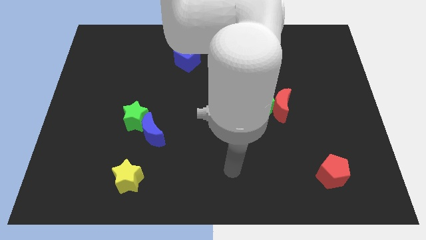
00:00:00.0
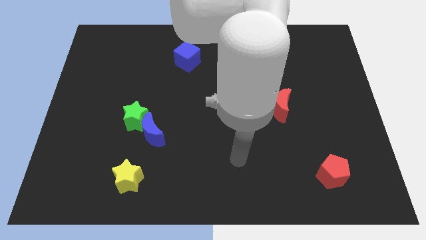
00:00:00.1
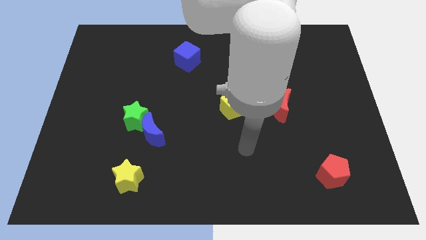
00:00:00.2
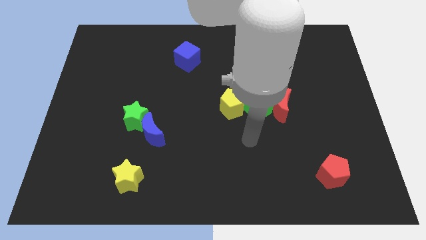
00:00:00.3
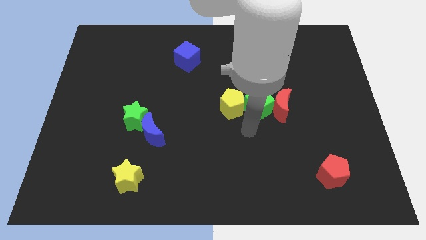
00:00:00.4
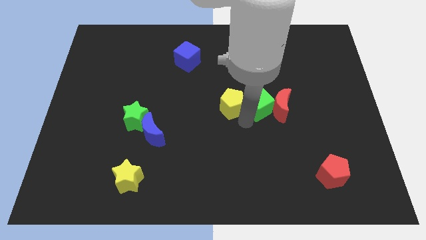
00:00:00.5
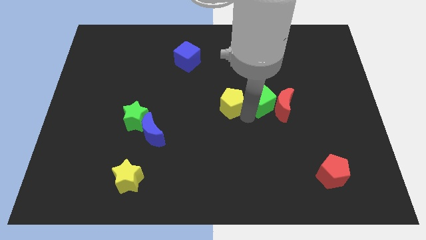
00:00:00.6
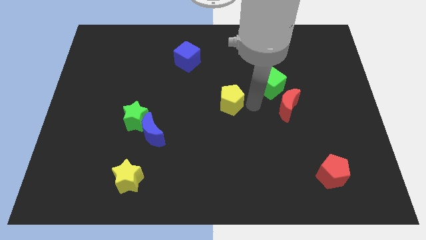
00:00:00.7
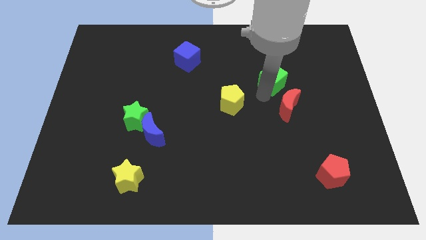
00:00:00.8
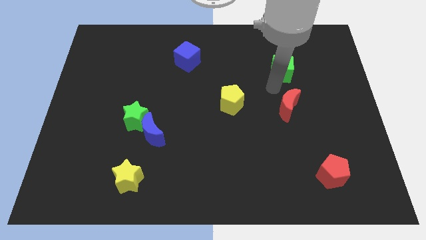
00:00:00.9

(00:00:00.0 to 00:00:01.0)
separate the red moon from the green cube

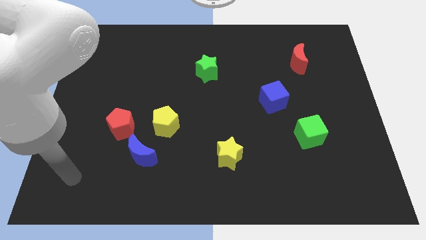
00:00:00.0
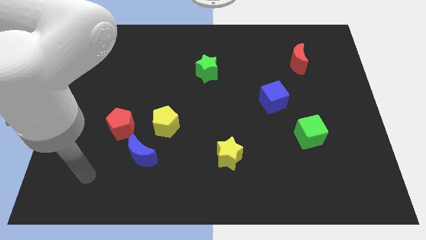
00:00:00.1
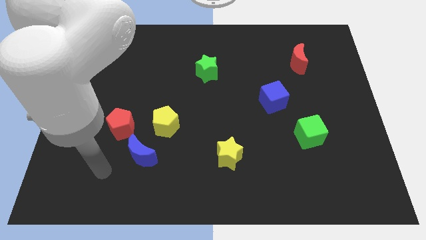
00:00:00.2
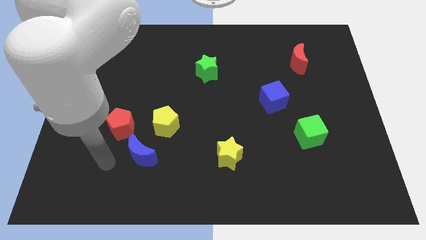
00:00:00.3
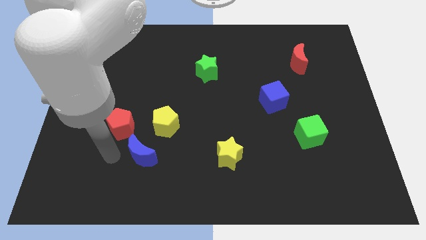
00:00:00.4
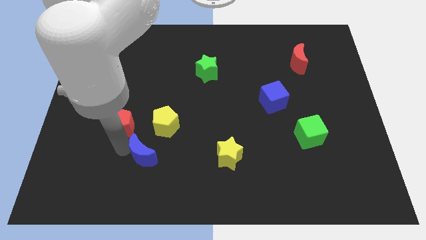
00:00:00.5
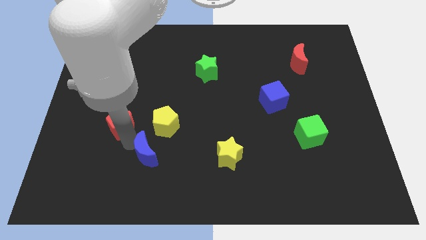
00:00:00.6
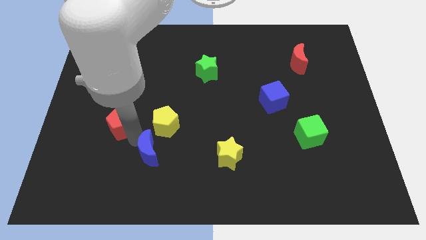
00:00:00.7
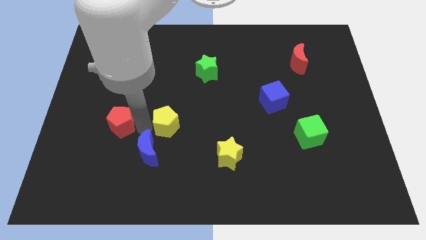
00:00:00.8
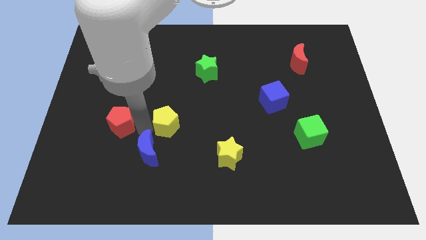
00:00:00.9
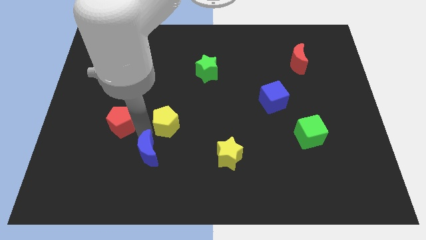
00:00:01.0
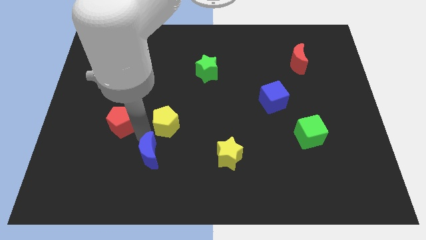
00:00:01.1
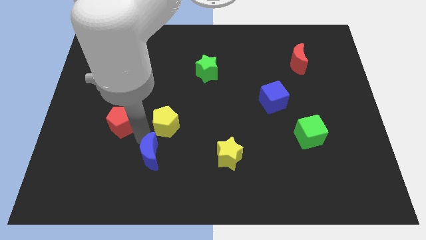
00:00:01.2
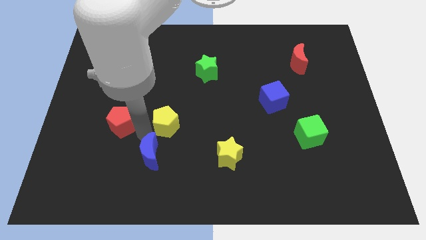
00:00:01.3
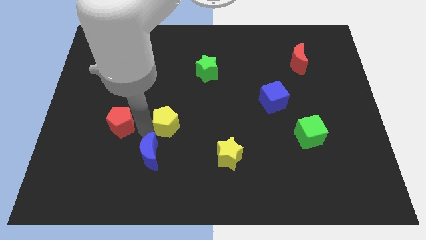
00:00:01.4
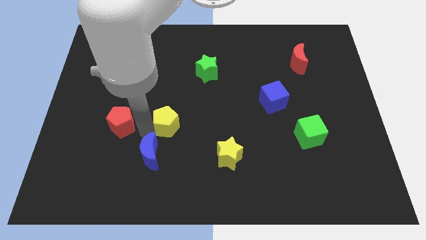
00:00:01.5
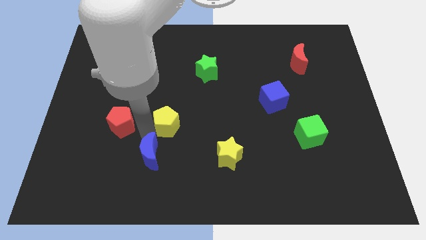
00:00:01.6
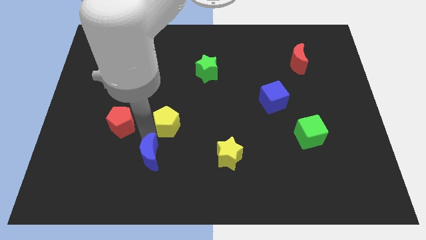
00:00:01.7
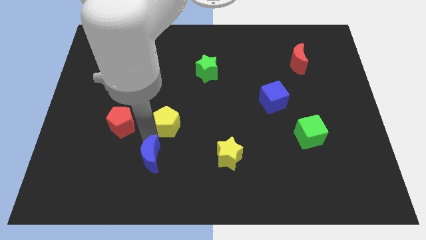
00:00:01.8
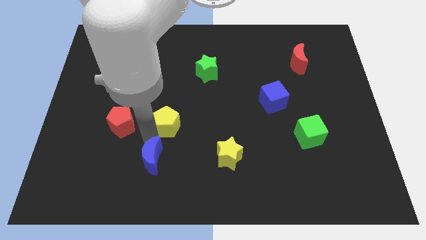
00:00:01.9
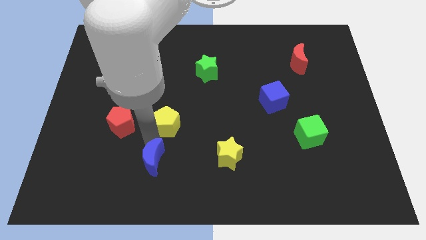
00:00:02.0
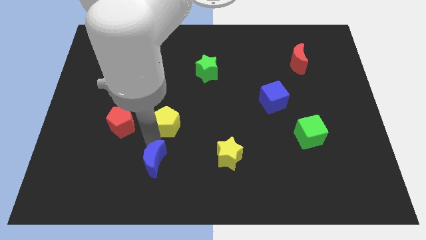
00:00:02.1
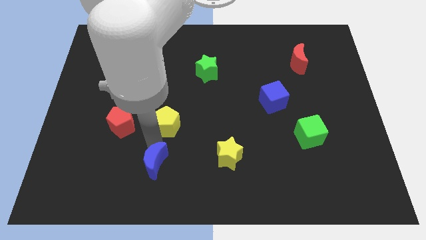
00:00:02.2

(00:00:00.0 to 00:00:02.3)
pull the blue moon apart from the red pentagon and yellow pentagon

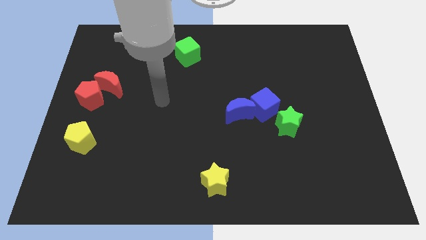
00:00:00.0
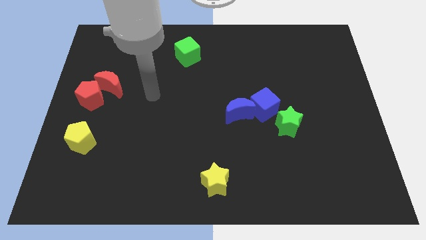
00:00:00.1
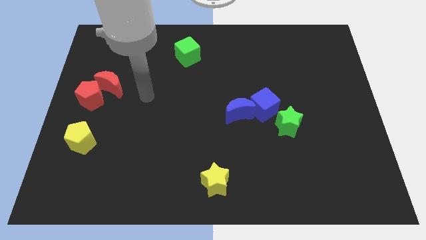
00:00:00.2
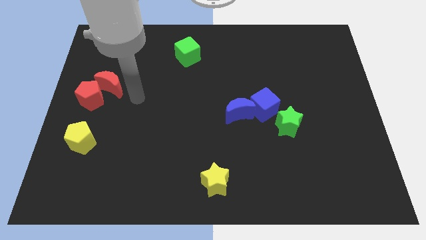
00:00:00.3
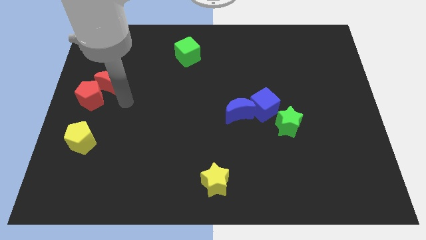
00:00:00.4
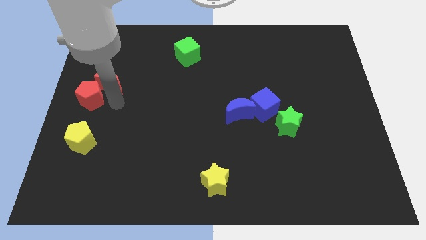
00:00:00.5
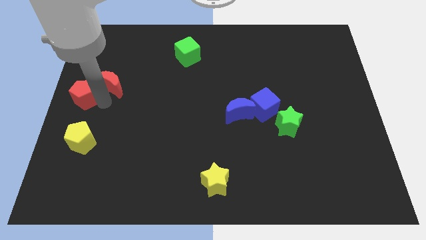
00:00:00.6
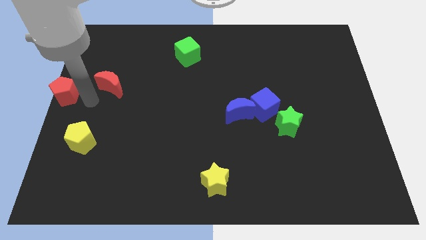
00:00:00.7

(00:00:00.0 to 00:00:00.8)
pull the red moon apart from the red pentagon

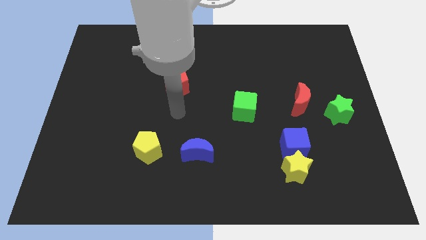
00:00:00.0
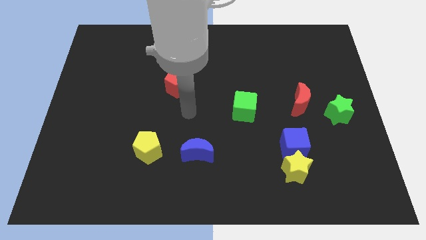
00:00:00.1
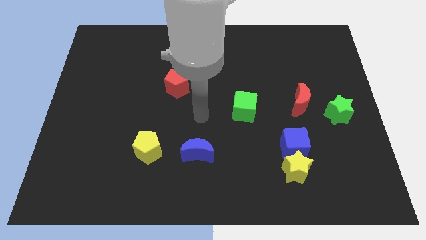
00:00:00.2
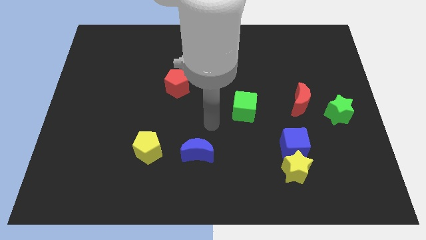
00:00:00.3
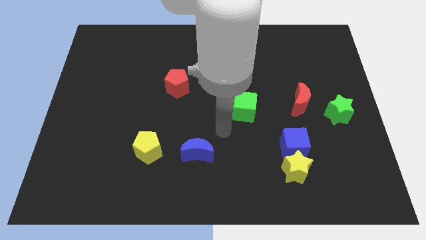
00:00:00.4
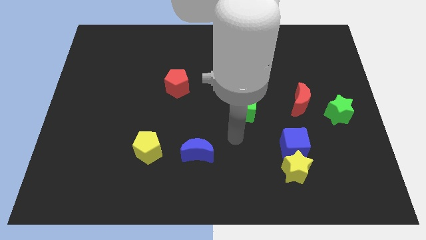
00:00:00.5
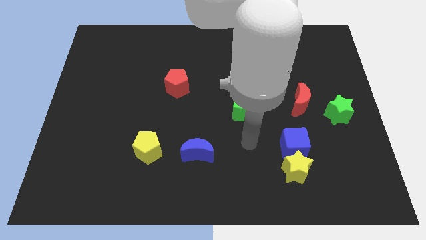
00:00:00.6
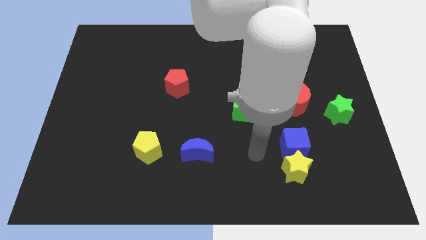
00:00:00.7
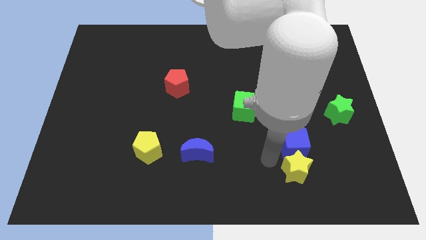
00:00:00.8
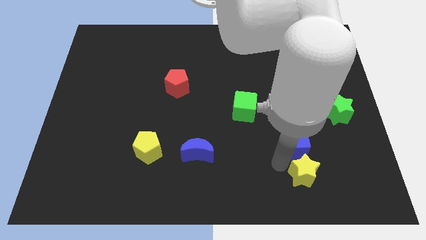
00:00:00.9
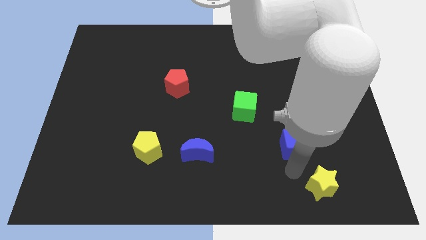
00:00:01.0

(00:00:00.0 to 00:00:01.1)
separate the blue cube from the yellow star

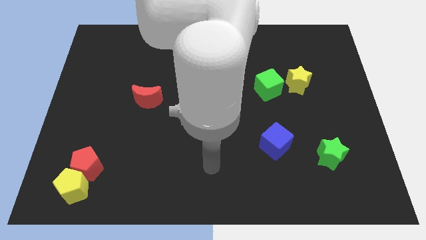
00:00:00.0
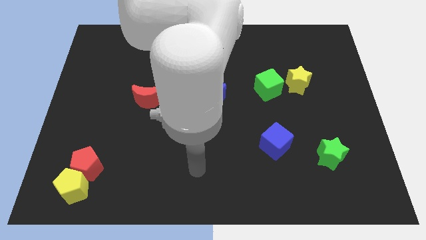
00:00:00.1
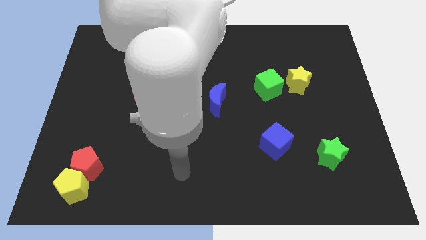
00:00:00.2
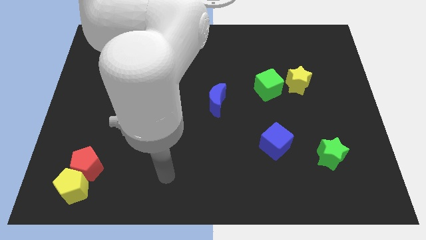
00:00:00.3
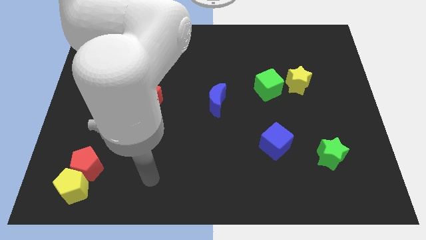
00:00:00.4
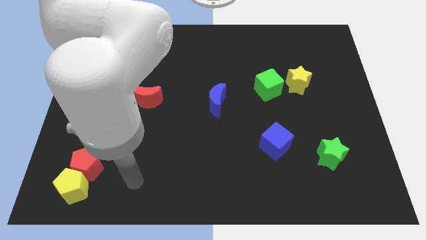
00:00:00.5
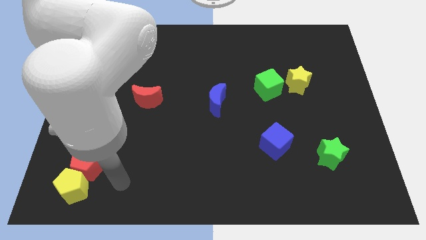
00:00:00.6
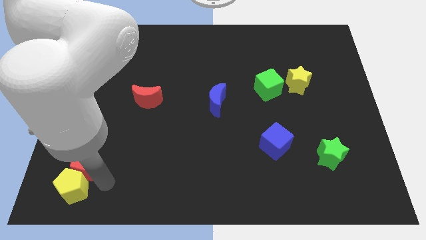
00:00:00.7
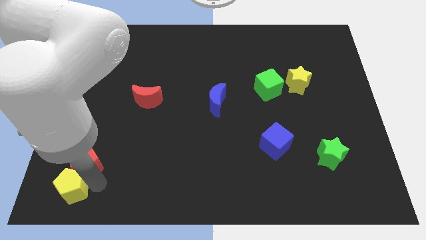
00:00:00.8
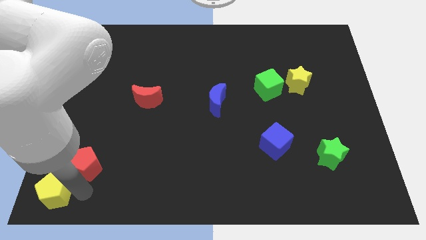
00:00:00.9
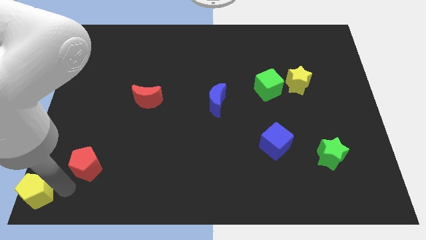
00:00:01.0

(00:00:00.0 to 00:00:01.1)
separate the red pentagon from the yellow pentagon

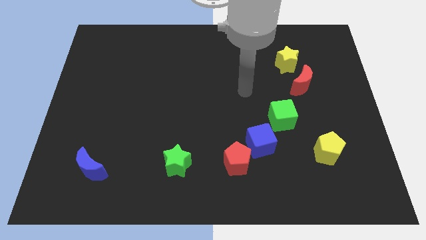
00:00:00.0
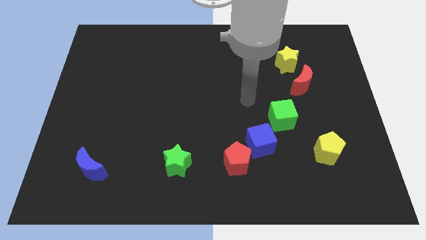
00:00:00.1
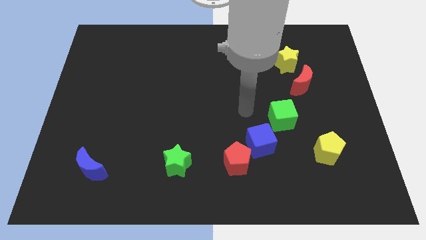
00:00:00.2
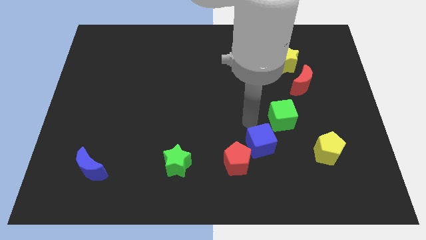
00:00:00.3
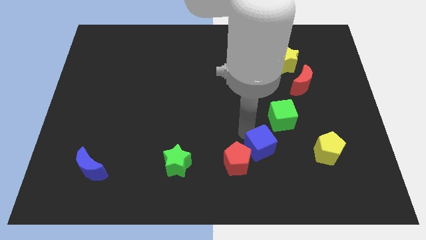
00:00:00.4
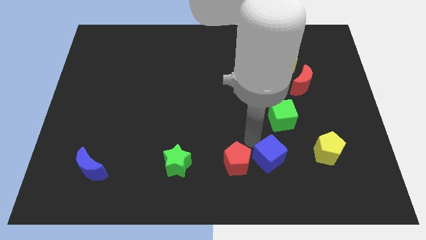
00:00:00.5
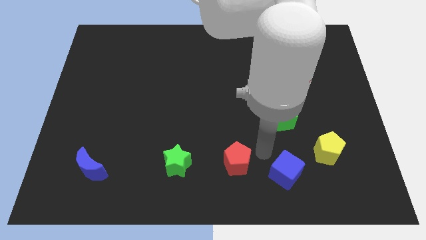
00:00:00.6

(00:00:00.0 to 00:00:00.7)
move the red pentagon away from the blue cube

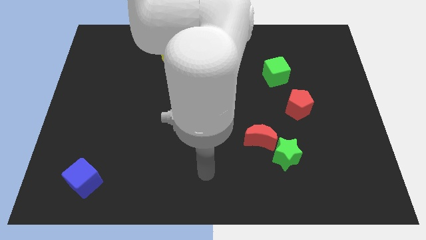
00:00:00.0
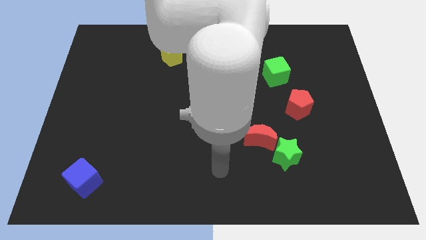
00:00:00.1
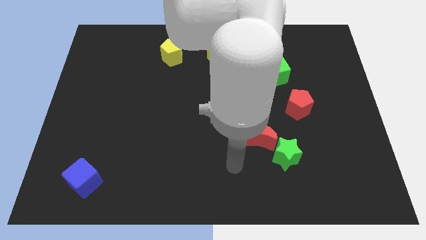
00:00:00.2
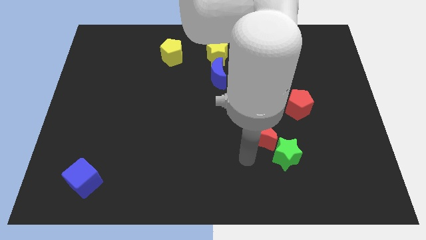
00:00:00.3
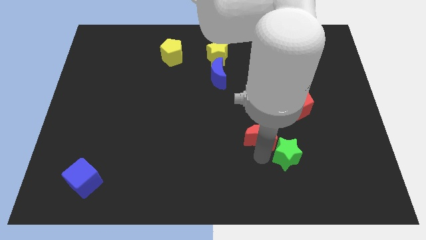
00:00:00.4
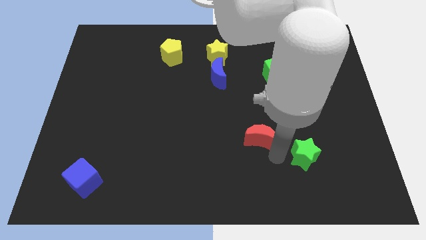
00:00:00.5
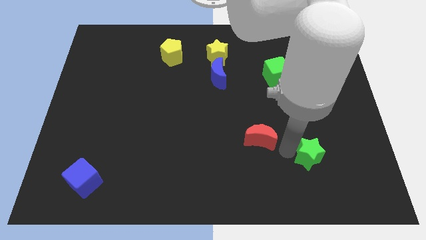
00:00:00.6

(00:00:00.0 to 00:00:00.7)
separate the red moon from the green star

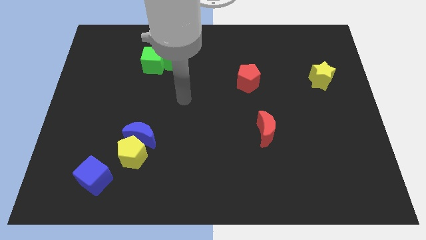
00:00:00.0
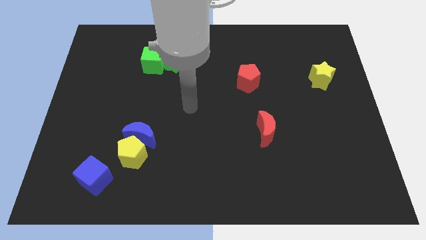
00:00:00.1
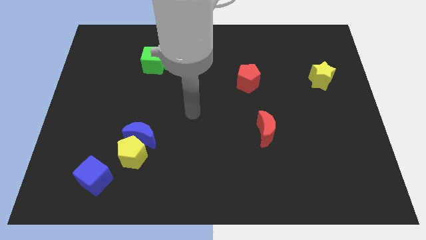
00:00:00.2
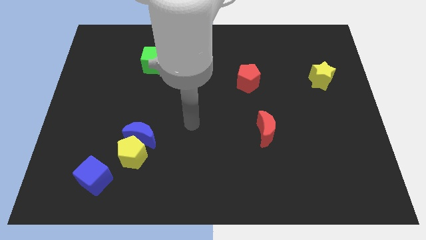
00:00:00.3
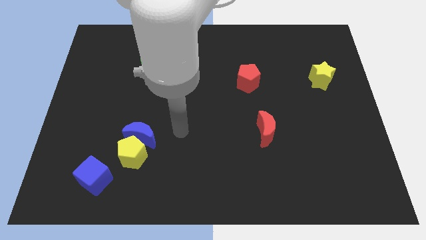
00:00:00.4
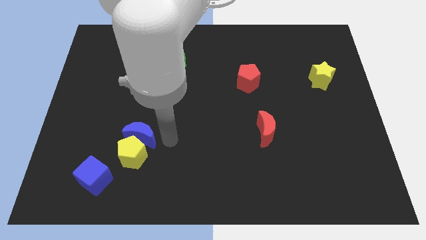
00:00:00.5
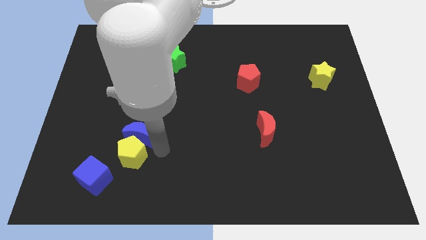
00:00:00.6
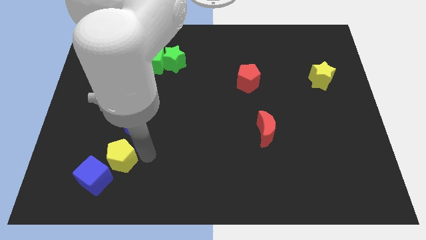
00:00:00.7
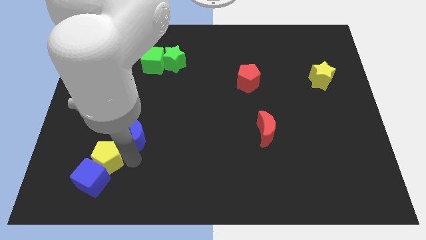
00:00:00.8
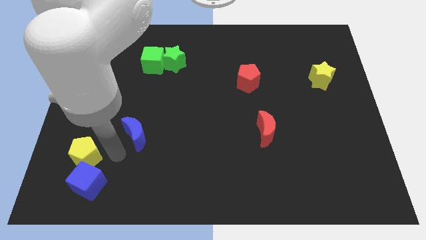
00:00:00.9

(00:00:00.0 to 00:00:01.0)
separate the blue moon from the yellow pentagon

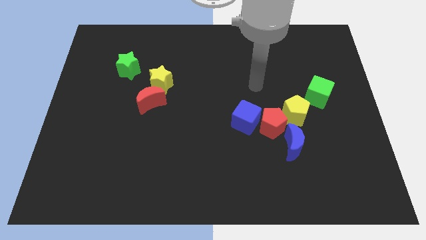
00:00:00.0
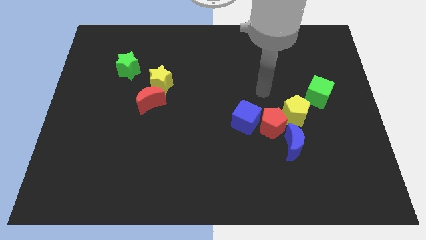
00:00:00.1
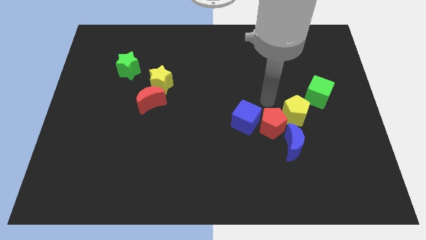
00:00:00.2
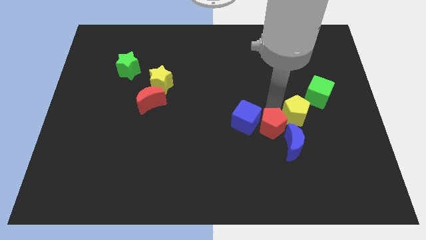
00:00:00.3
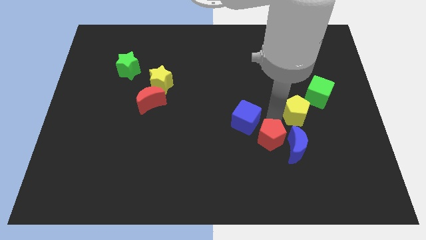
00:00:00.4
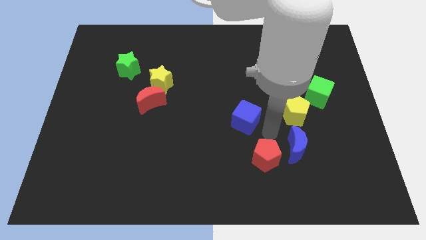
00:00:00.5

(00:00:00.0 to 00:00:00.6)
move the blue cube away from the red pentagon
